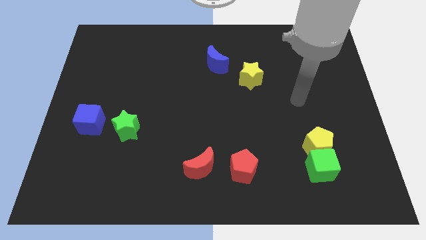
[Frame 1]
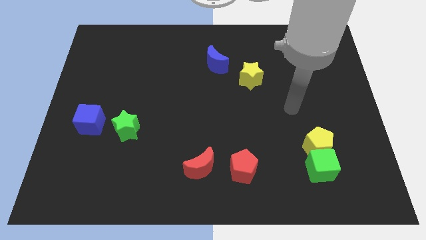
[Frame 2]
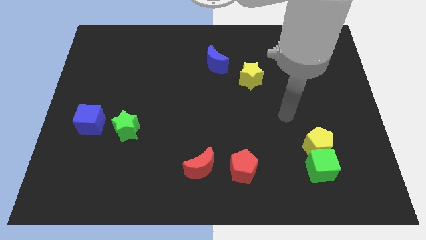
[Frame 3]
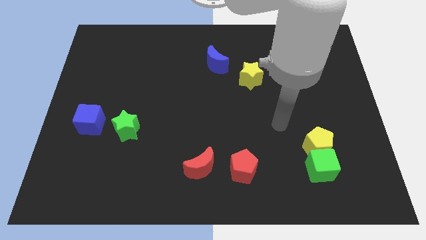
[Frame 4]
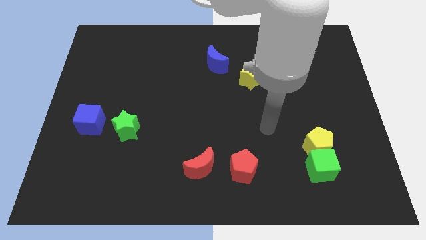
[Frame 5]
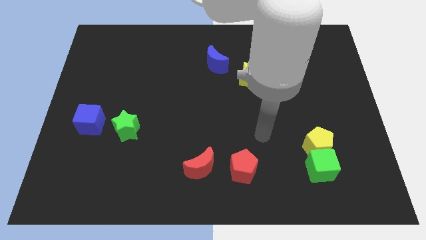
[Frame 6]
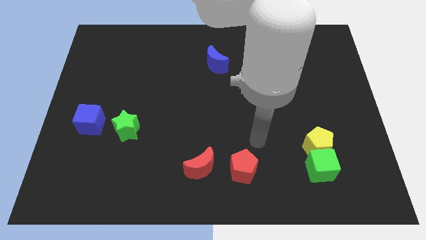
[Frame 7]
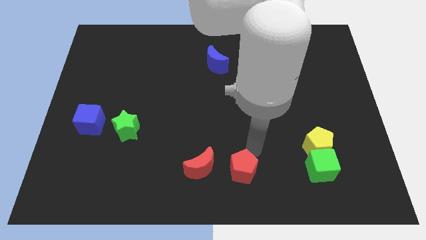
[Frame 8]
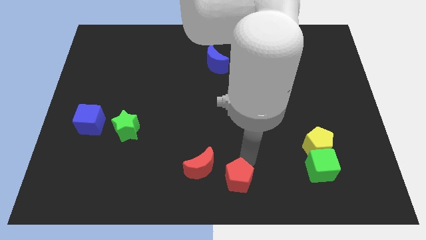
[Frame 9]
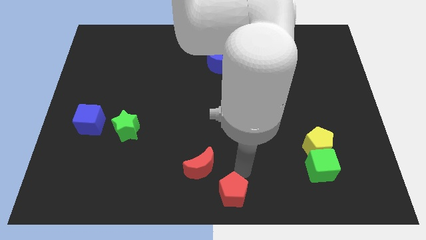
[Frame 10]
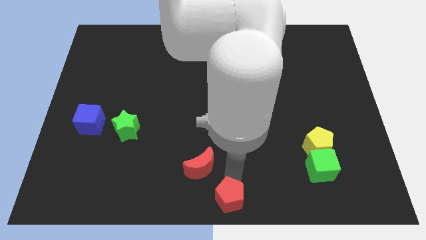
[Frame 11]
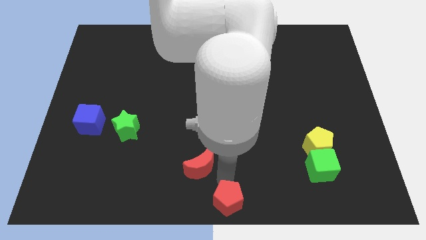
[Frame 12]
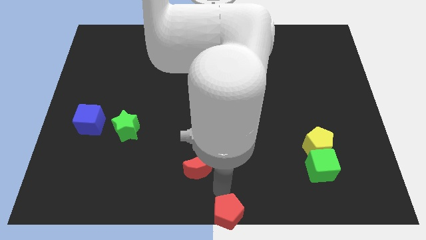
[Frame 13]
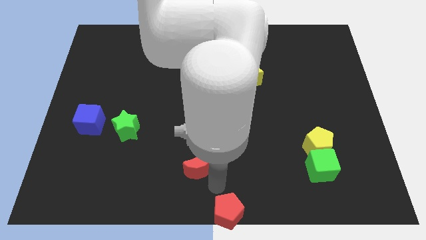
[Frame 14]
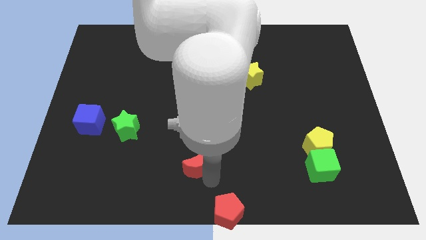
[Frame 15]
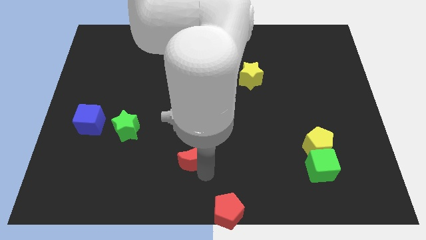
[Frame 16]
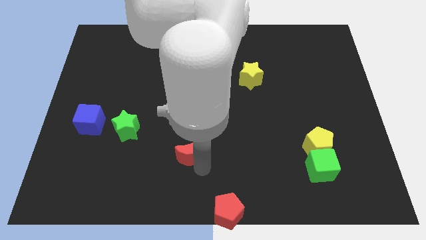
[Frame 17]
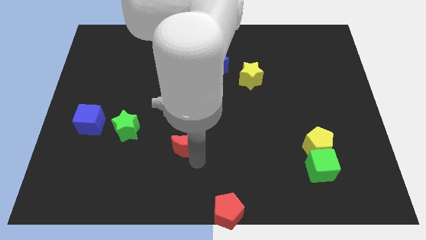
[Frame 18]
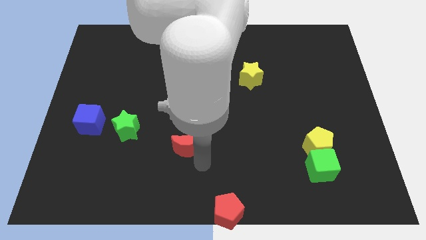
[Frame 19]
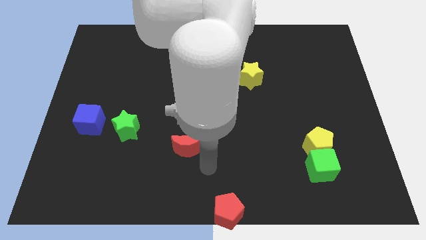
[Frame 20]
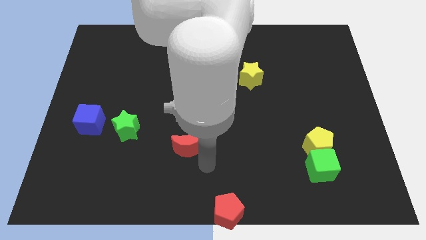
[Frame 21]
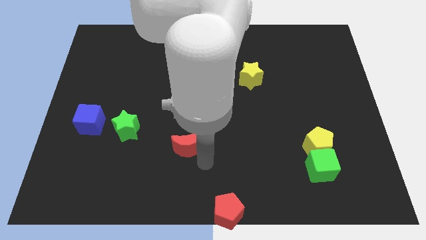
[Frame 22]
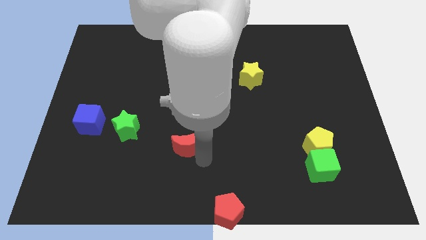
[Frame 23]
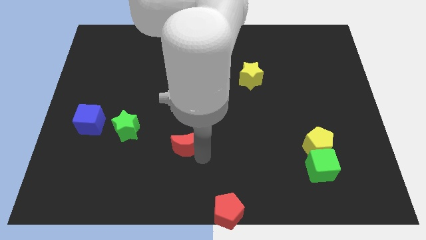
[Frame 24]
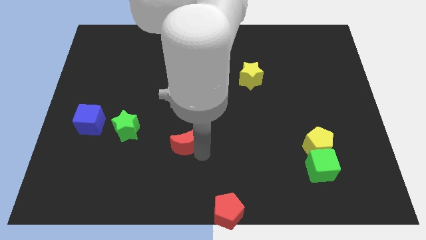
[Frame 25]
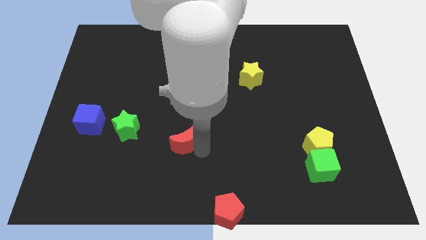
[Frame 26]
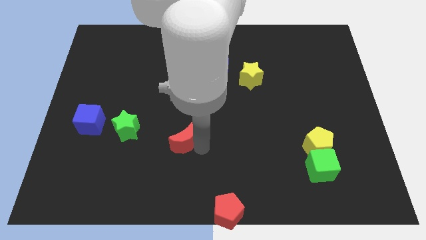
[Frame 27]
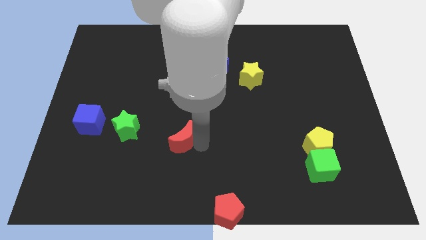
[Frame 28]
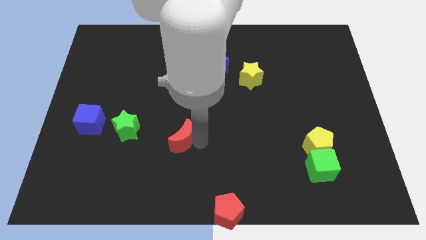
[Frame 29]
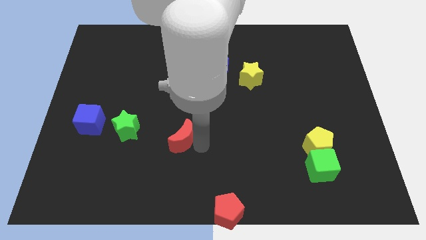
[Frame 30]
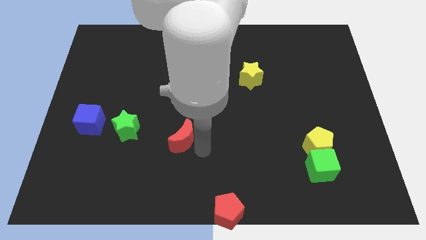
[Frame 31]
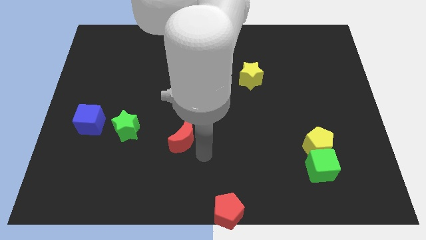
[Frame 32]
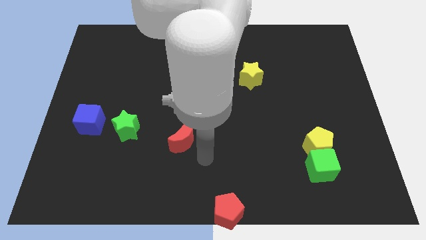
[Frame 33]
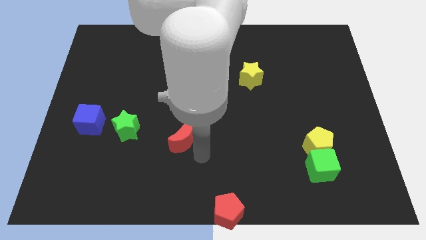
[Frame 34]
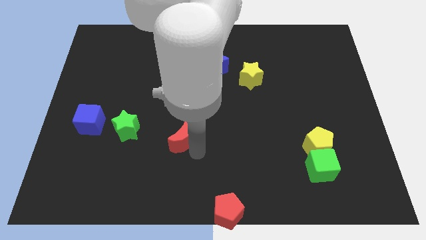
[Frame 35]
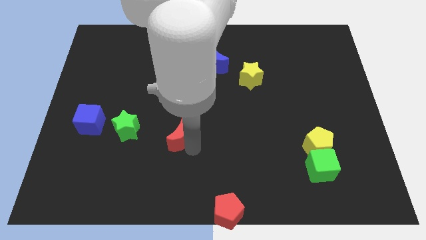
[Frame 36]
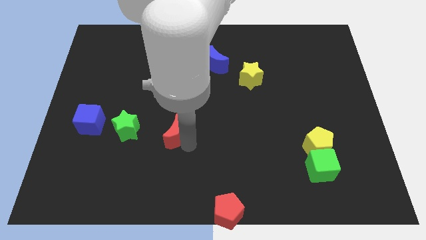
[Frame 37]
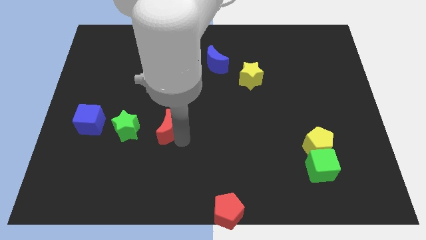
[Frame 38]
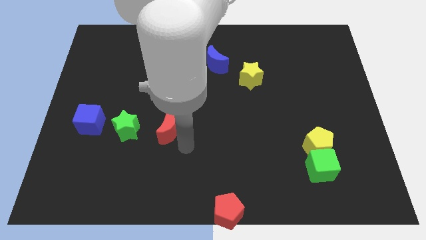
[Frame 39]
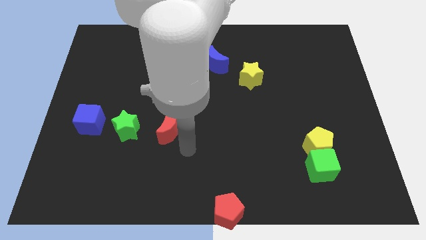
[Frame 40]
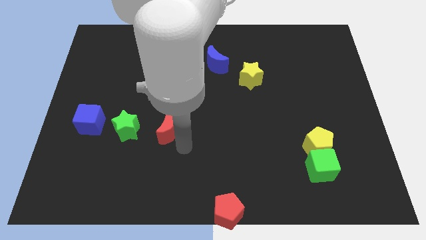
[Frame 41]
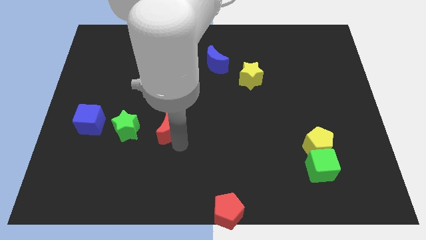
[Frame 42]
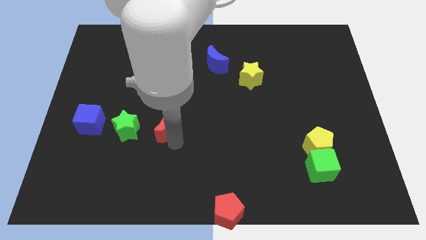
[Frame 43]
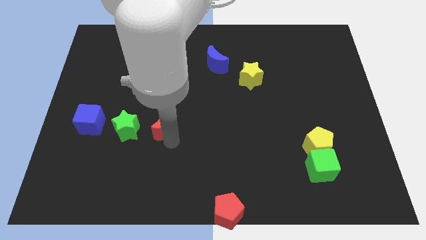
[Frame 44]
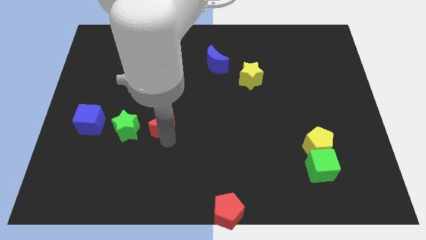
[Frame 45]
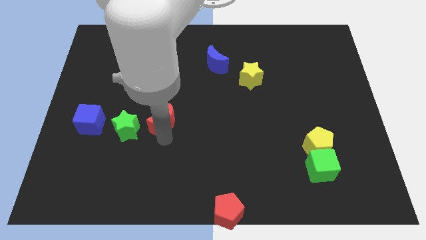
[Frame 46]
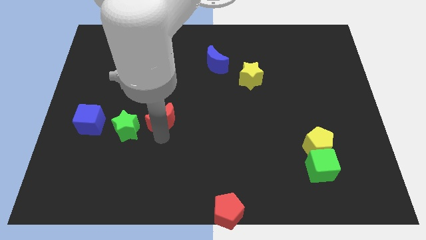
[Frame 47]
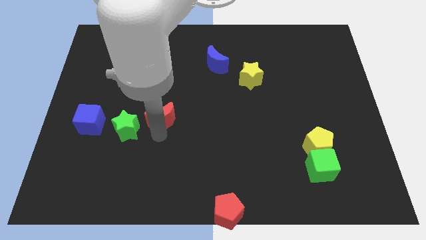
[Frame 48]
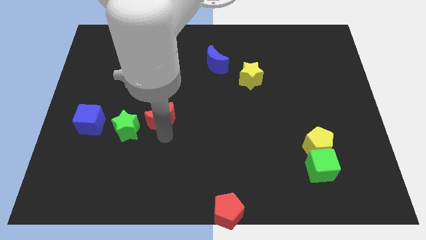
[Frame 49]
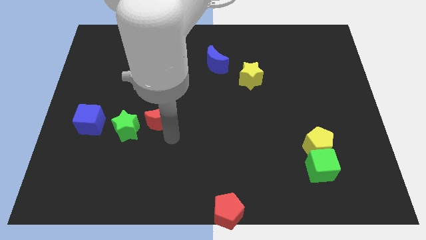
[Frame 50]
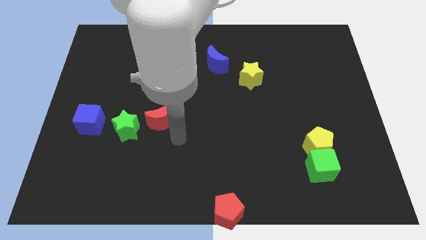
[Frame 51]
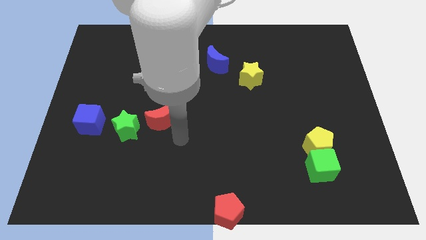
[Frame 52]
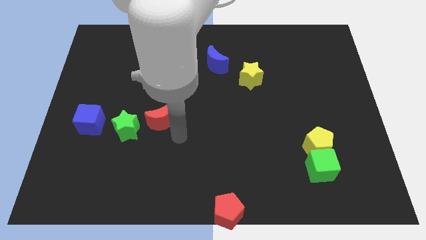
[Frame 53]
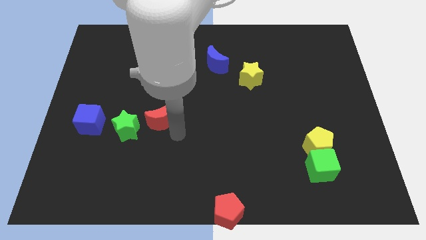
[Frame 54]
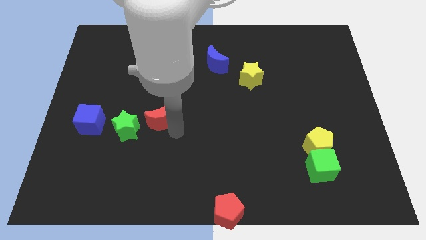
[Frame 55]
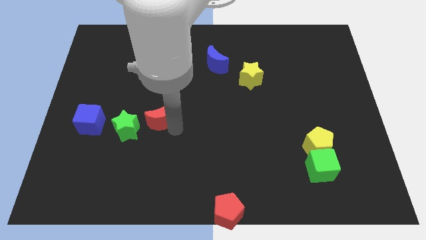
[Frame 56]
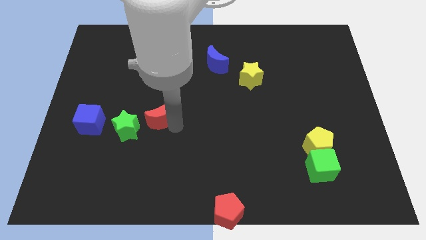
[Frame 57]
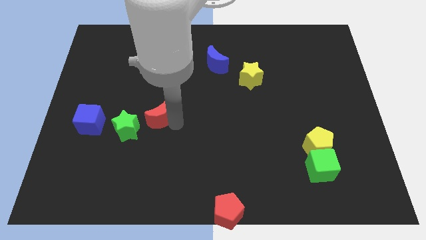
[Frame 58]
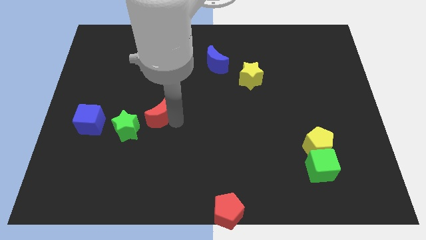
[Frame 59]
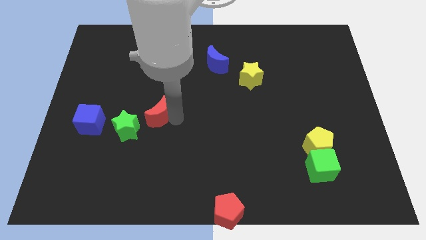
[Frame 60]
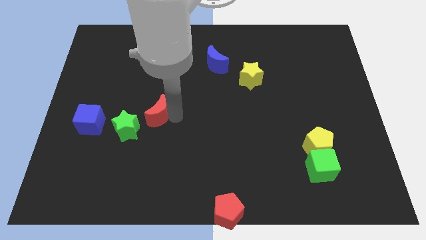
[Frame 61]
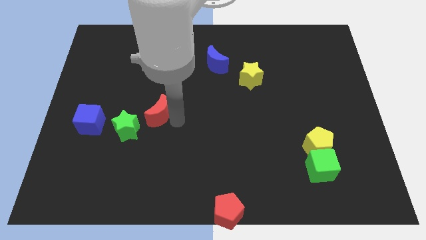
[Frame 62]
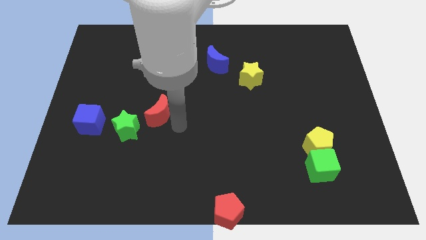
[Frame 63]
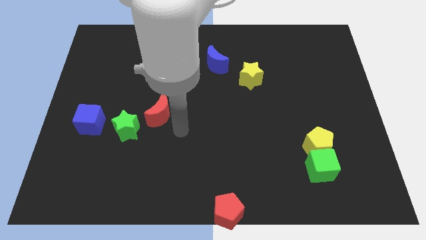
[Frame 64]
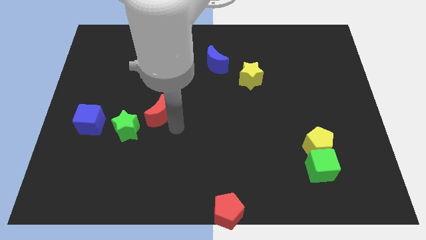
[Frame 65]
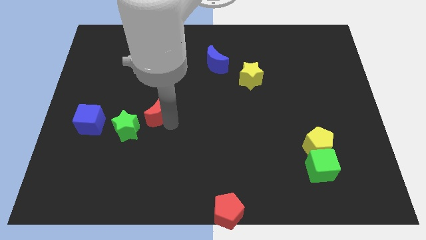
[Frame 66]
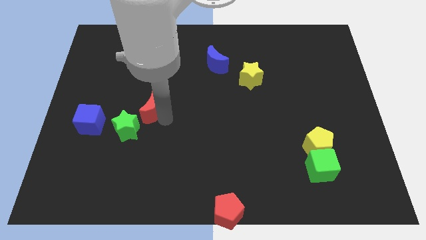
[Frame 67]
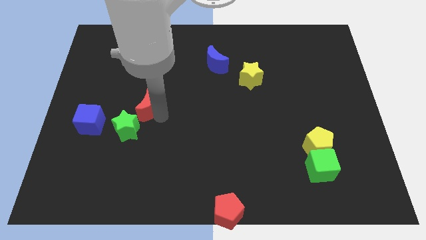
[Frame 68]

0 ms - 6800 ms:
move the red moon above the green star

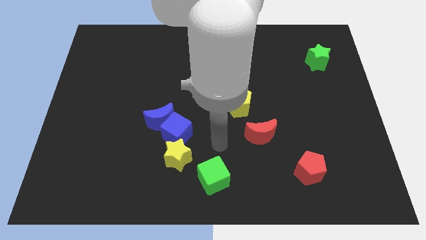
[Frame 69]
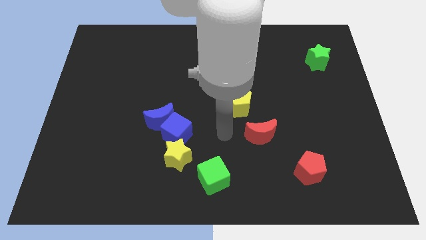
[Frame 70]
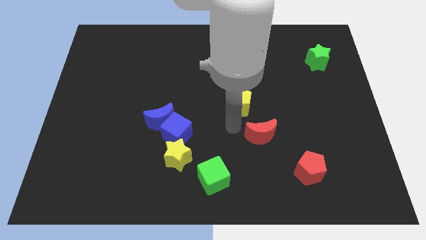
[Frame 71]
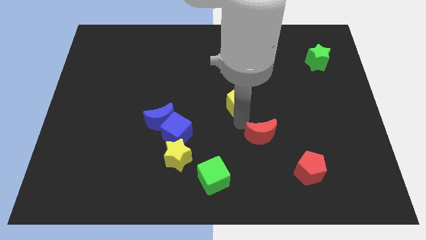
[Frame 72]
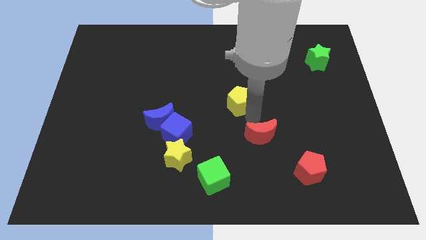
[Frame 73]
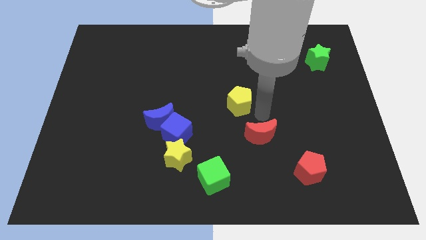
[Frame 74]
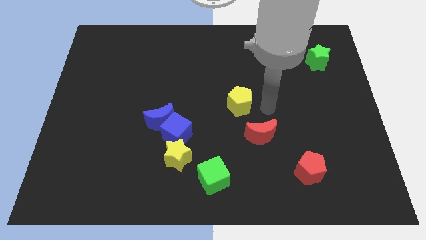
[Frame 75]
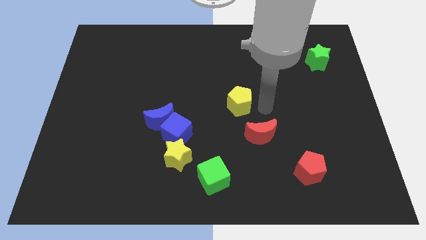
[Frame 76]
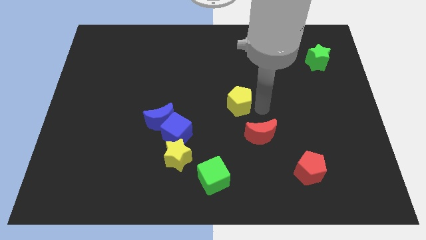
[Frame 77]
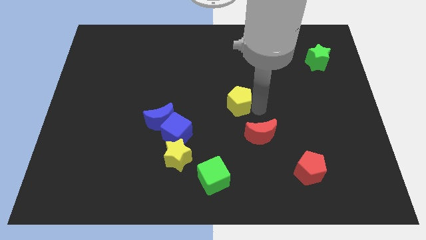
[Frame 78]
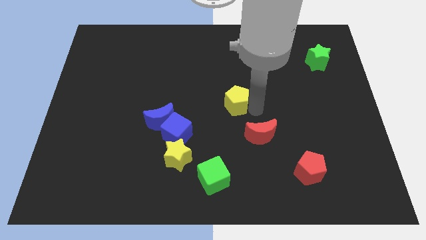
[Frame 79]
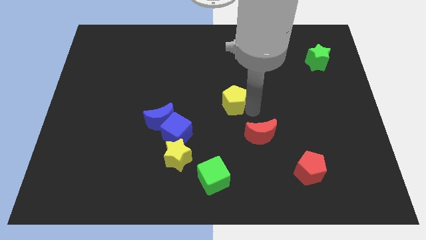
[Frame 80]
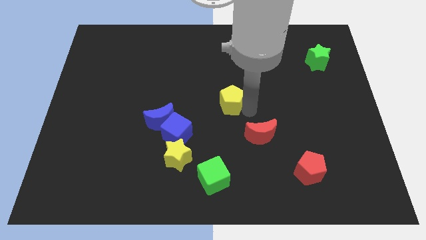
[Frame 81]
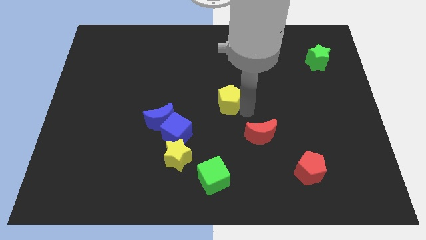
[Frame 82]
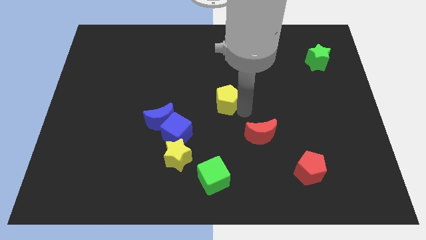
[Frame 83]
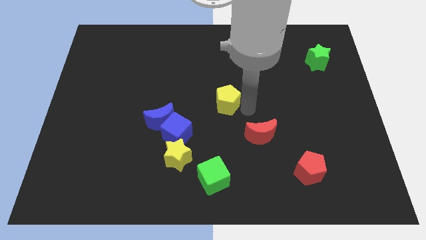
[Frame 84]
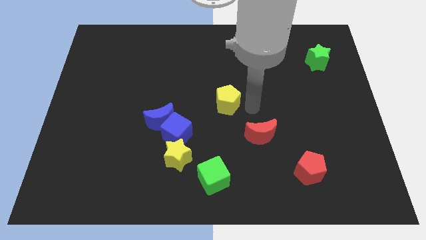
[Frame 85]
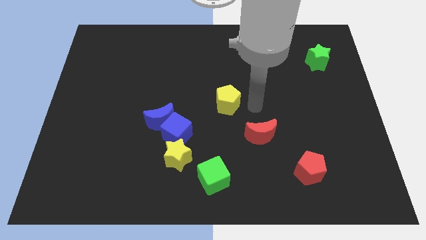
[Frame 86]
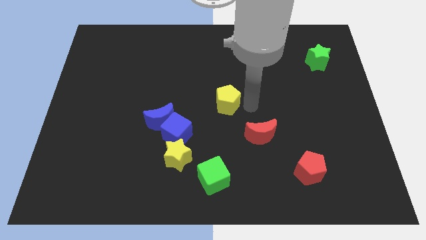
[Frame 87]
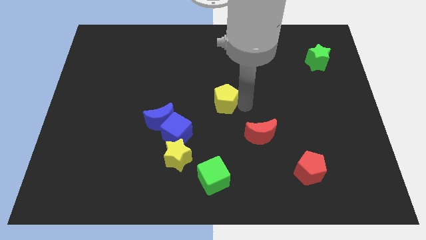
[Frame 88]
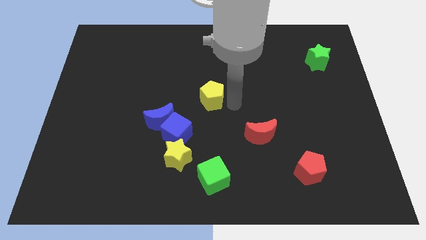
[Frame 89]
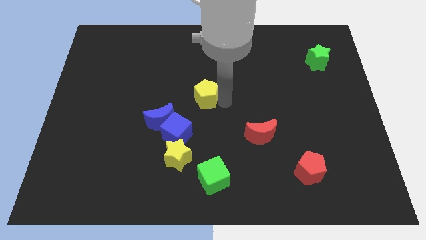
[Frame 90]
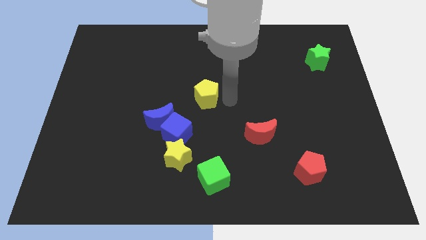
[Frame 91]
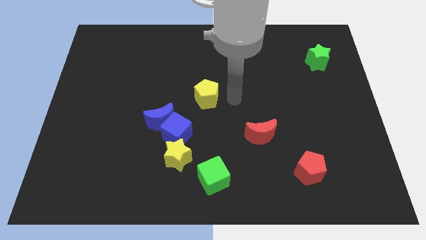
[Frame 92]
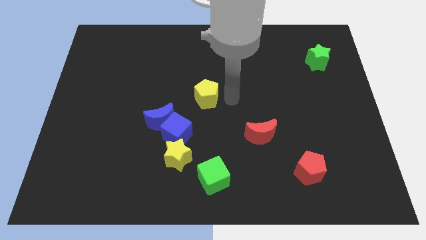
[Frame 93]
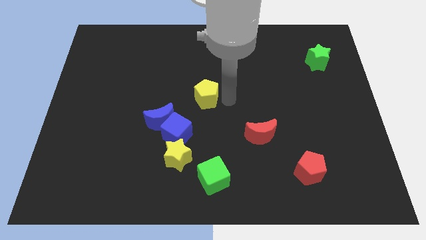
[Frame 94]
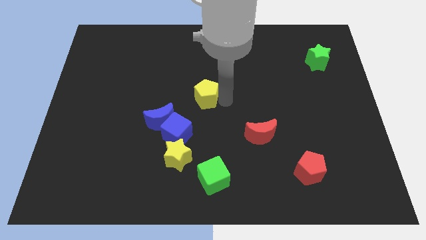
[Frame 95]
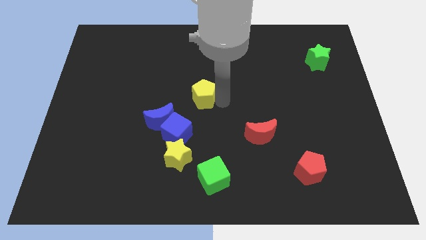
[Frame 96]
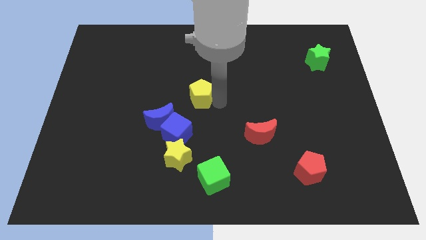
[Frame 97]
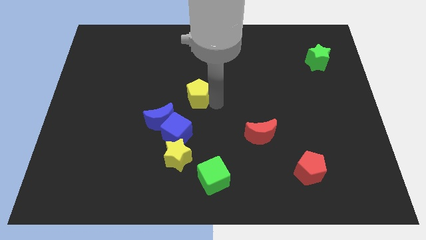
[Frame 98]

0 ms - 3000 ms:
push the yellow pentagon to the top of the blue cube
